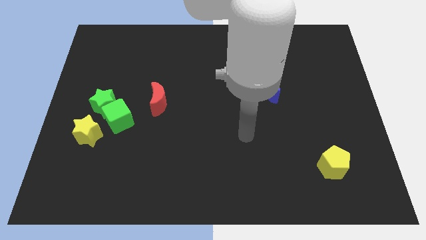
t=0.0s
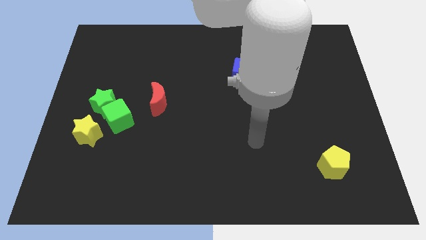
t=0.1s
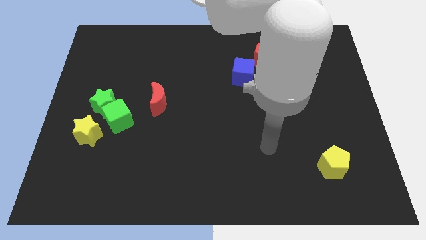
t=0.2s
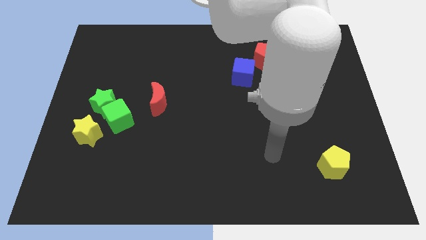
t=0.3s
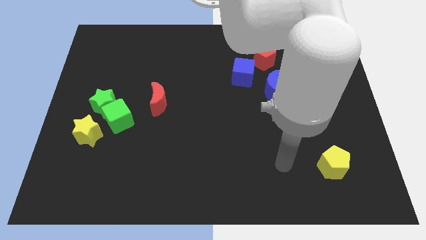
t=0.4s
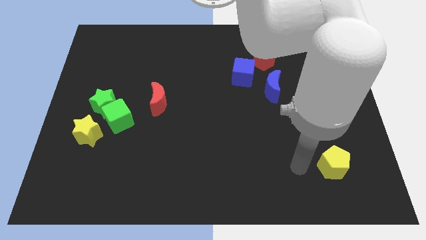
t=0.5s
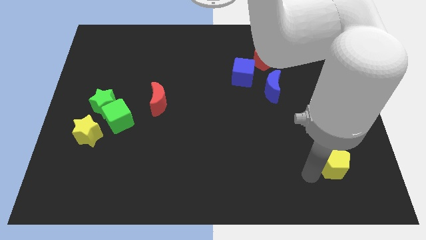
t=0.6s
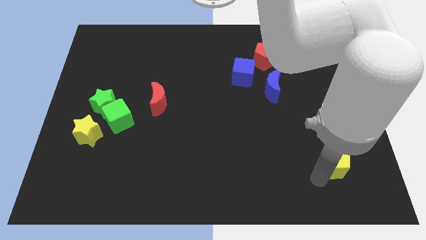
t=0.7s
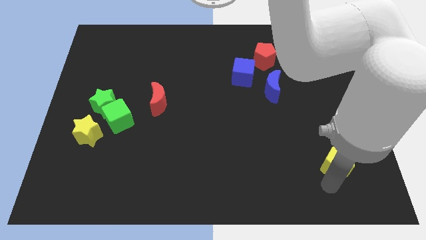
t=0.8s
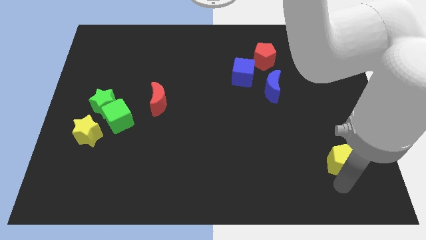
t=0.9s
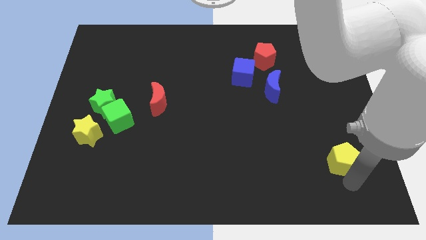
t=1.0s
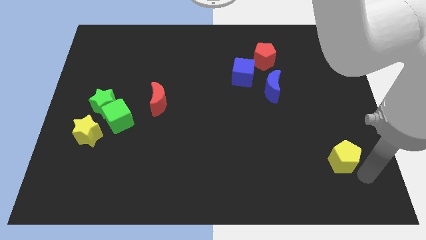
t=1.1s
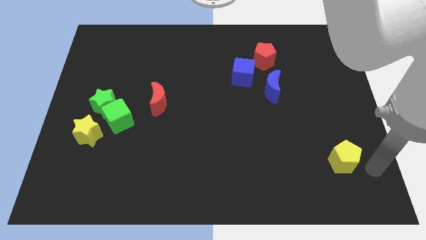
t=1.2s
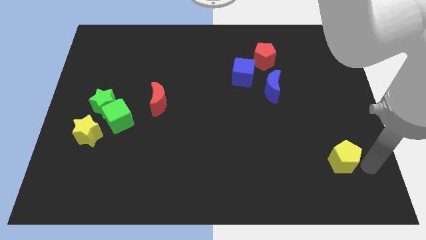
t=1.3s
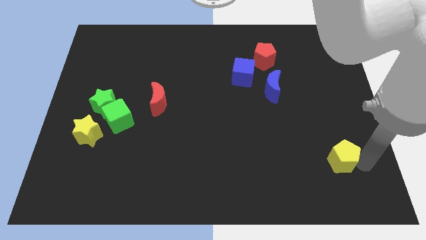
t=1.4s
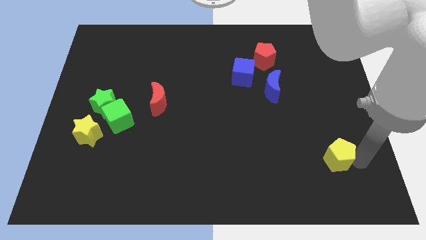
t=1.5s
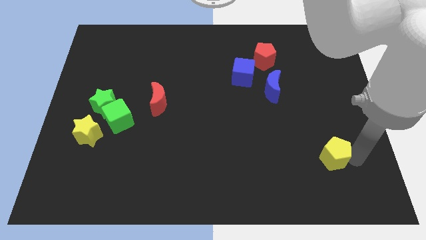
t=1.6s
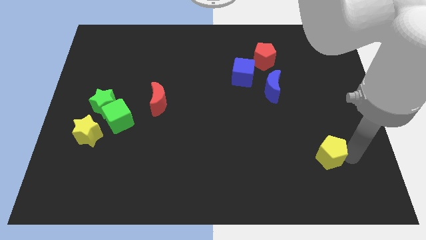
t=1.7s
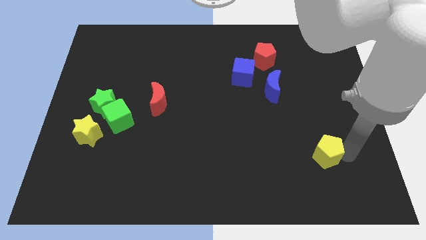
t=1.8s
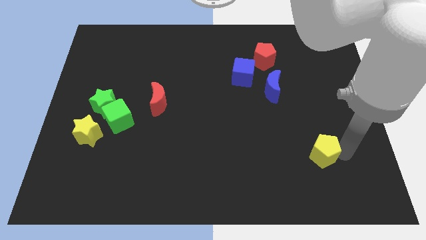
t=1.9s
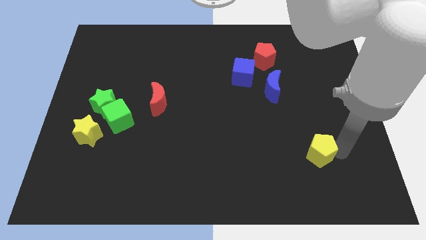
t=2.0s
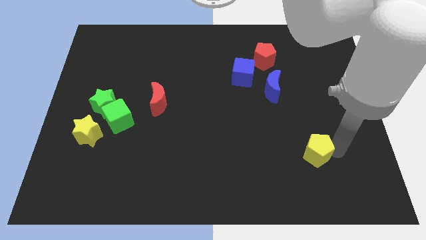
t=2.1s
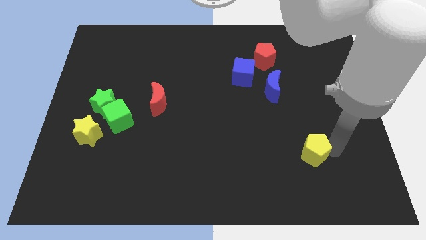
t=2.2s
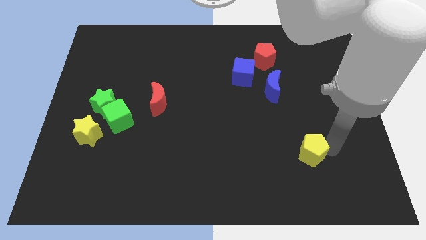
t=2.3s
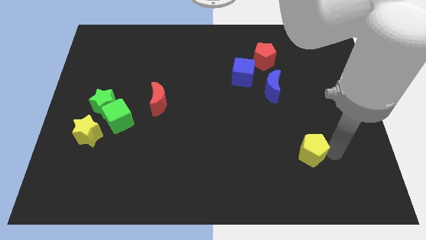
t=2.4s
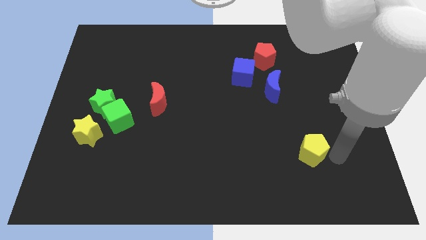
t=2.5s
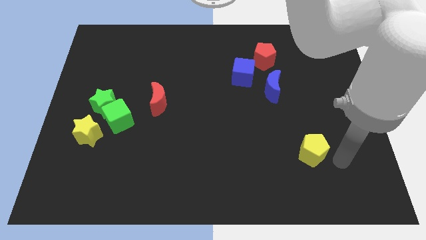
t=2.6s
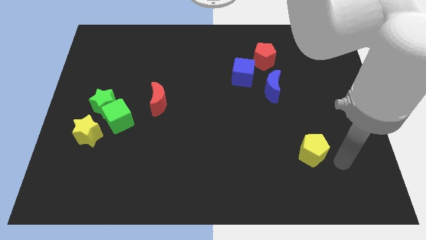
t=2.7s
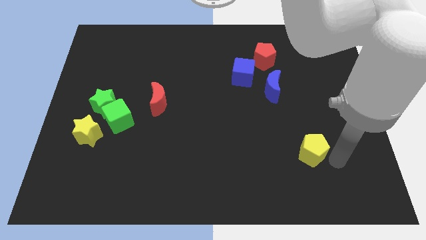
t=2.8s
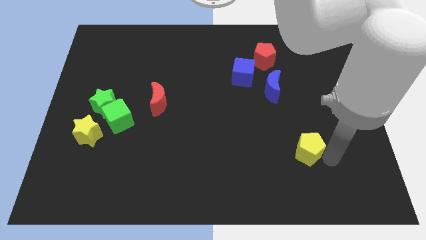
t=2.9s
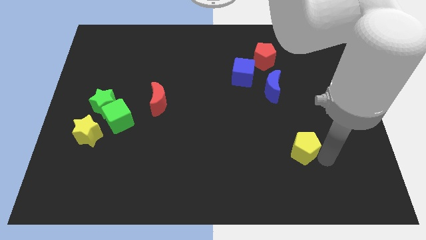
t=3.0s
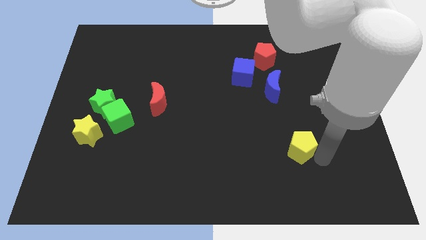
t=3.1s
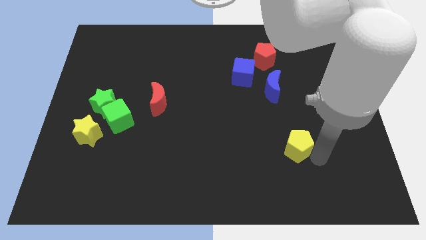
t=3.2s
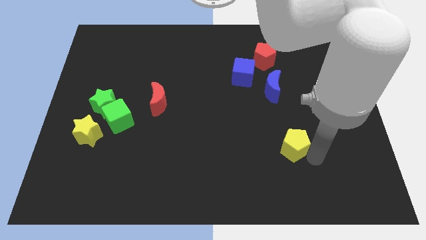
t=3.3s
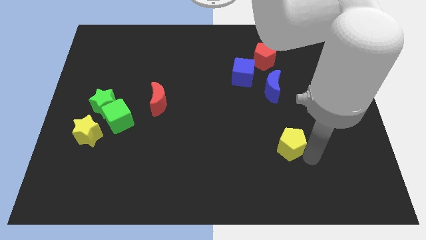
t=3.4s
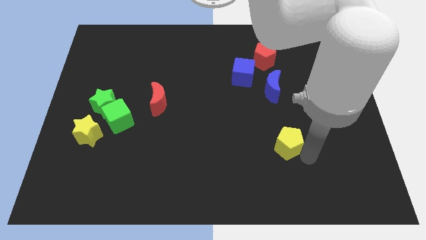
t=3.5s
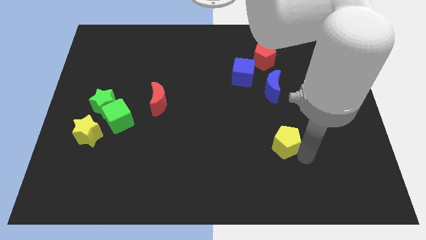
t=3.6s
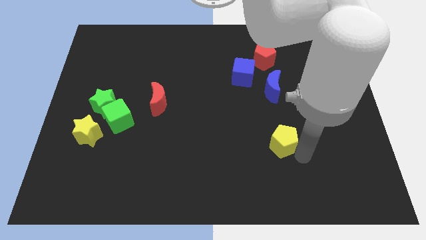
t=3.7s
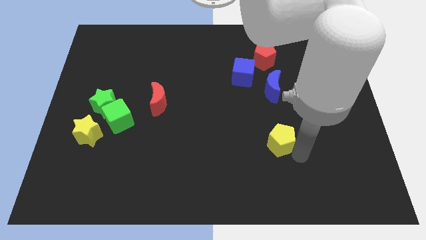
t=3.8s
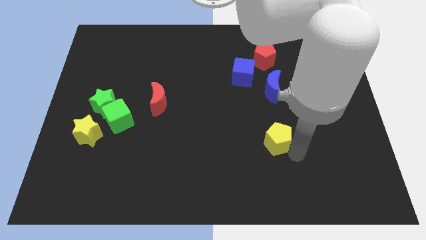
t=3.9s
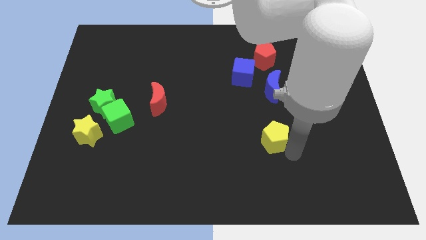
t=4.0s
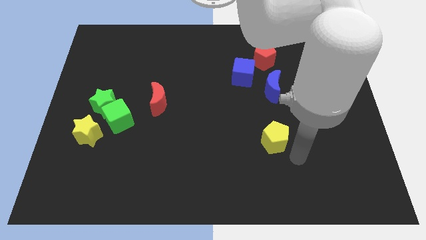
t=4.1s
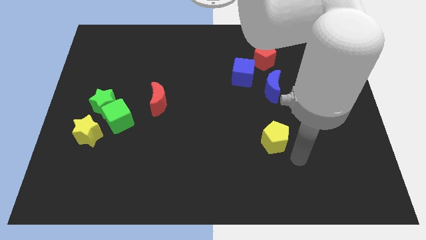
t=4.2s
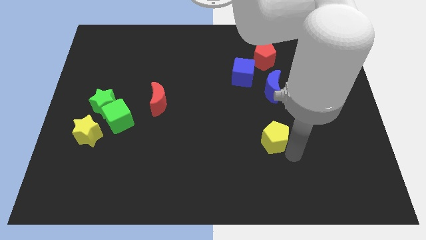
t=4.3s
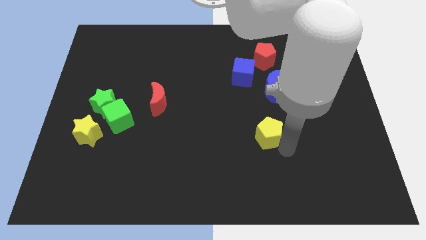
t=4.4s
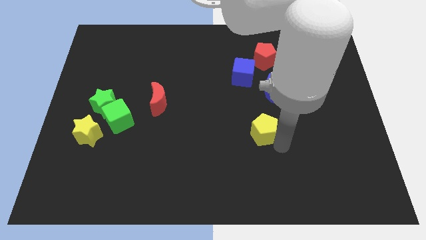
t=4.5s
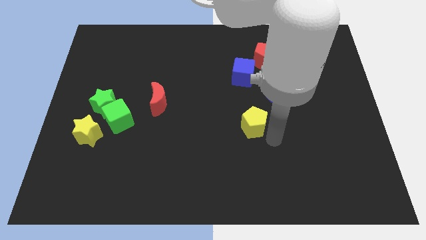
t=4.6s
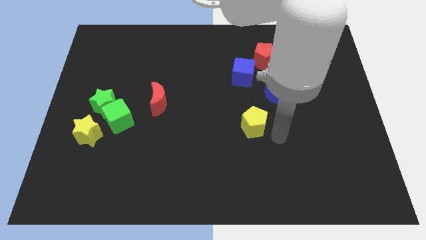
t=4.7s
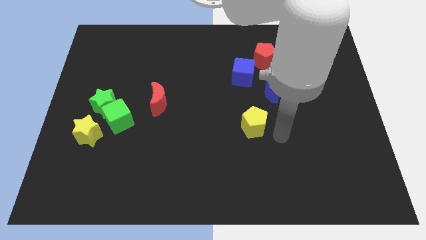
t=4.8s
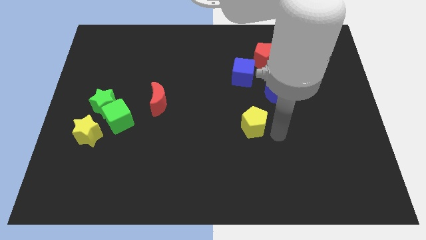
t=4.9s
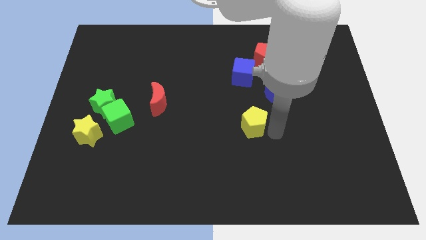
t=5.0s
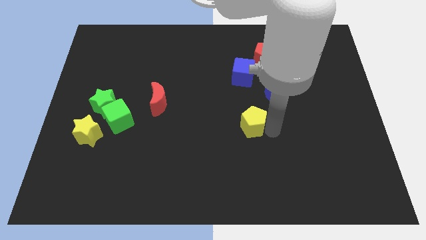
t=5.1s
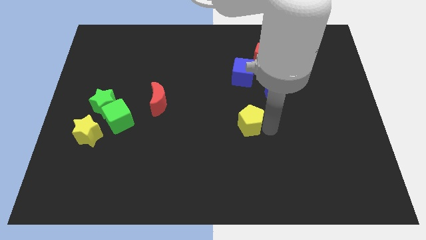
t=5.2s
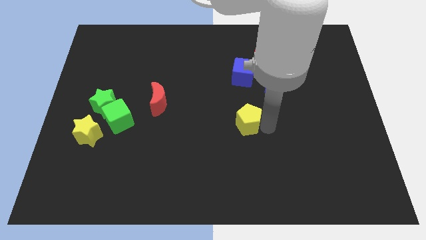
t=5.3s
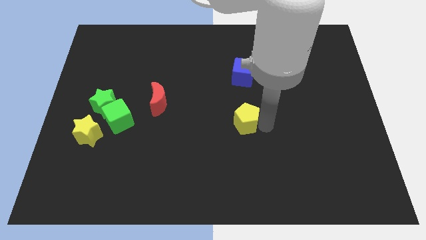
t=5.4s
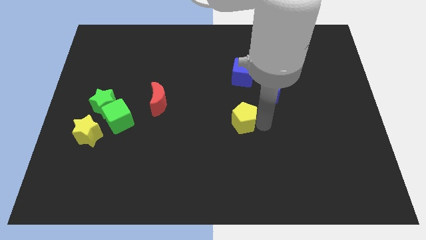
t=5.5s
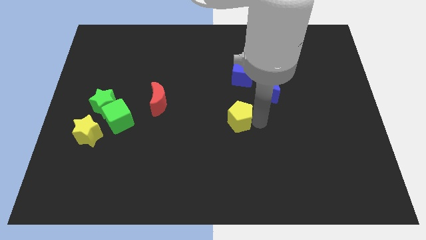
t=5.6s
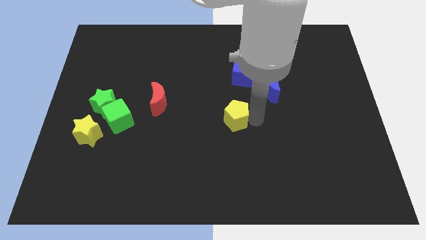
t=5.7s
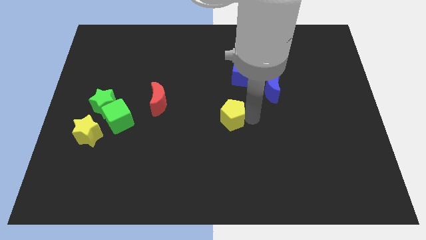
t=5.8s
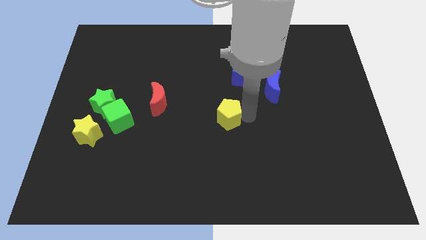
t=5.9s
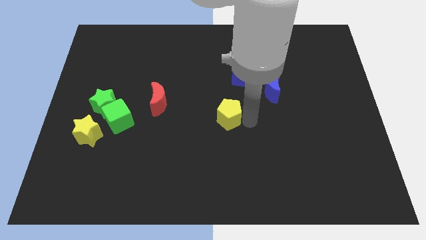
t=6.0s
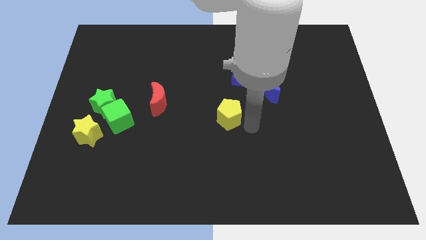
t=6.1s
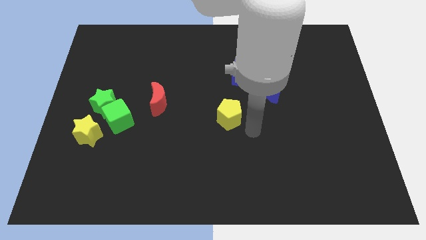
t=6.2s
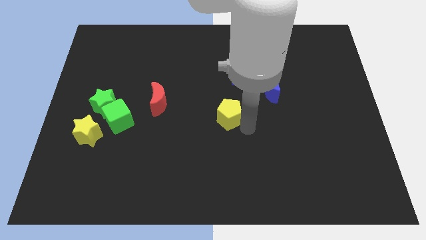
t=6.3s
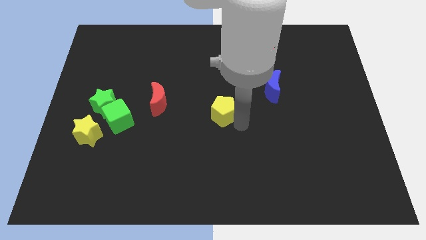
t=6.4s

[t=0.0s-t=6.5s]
move the yellow pentagon right of the red moon

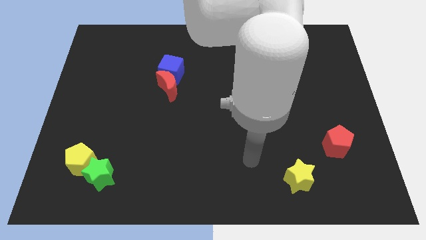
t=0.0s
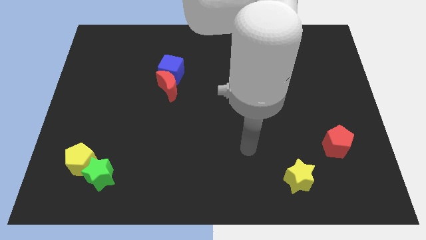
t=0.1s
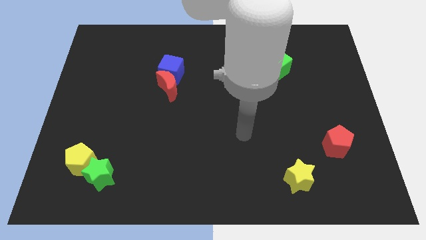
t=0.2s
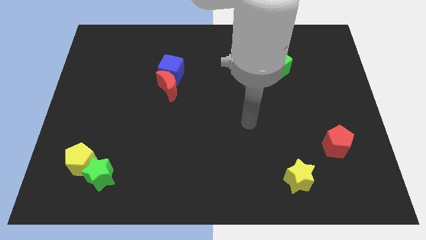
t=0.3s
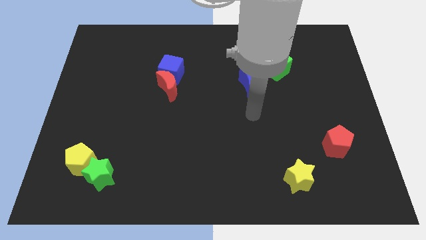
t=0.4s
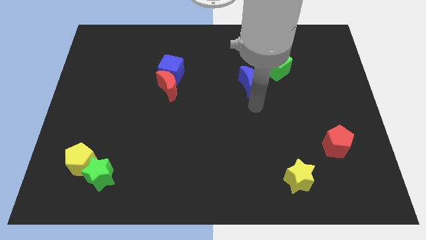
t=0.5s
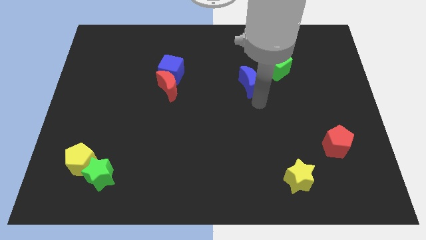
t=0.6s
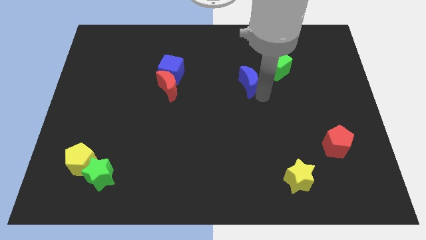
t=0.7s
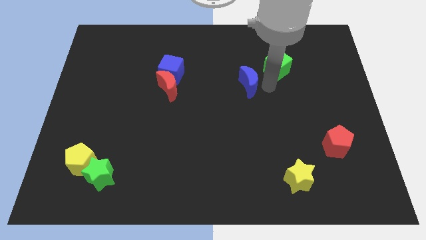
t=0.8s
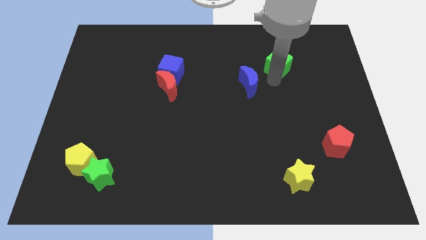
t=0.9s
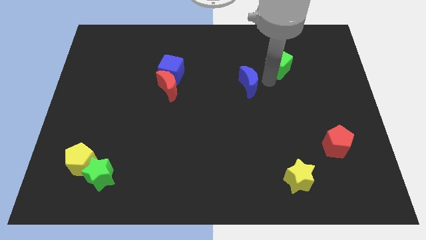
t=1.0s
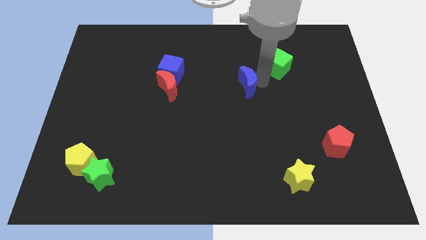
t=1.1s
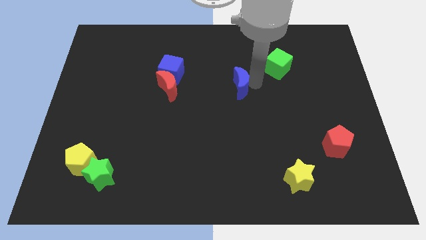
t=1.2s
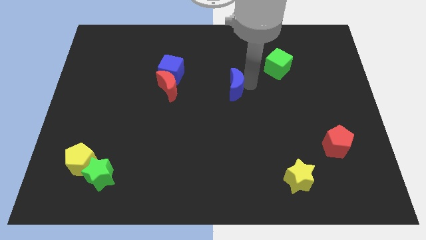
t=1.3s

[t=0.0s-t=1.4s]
move the blue moon right of the red moon
